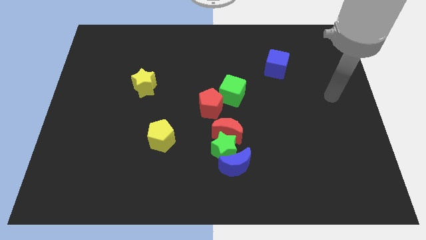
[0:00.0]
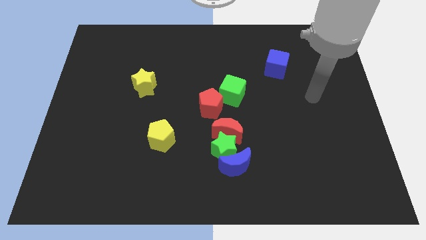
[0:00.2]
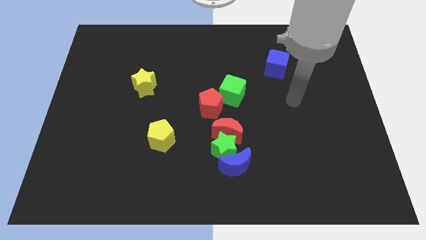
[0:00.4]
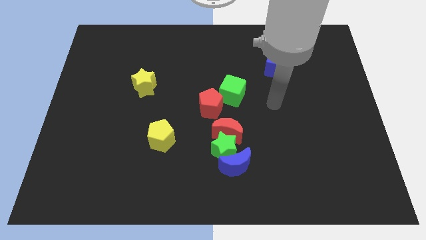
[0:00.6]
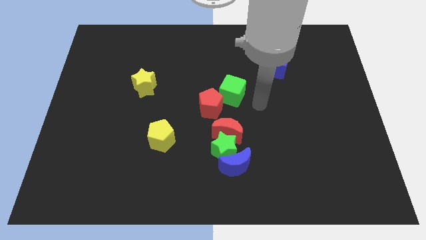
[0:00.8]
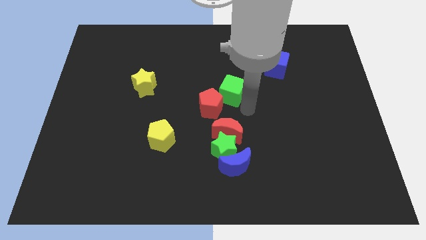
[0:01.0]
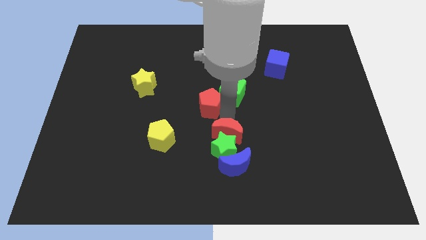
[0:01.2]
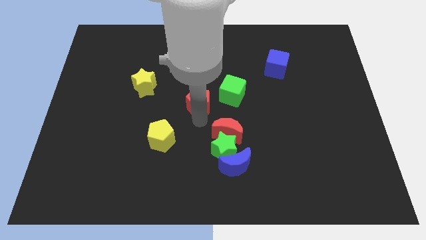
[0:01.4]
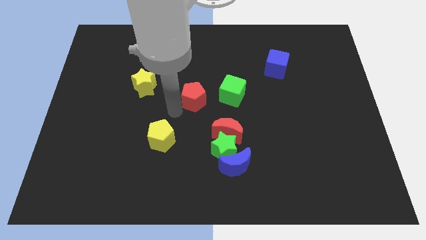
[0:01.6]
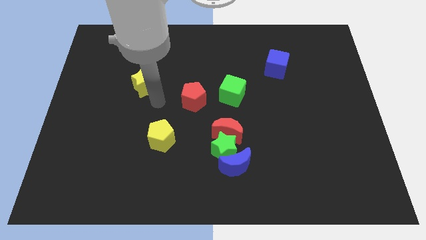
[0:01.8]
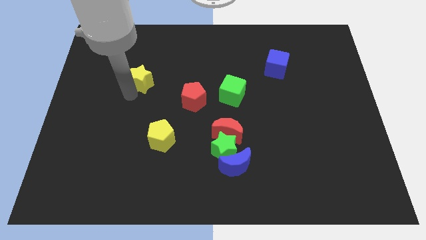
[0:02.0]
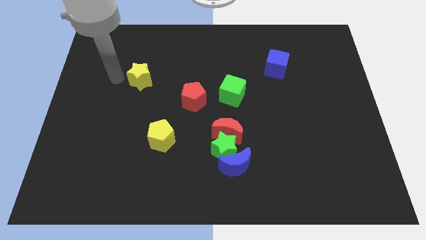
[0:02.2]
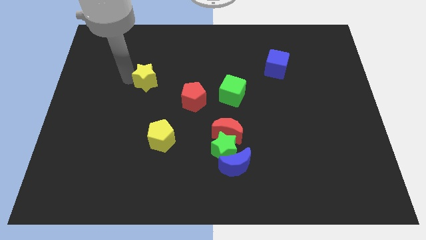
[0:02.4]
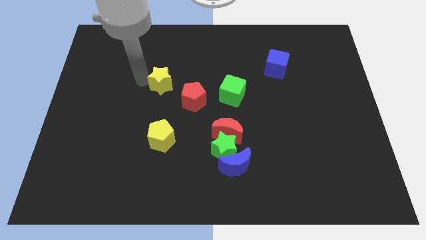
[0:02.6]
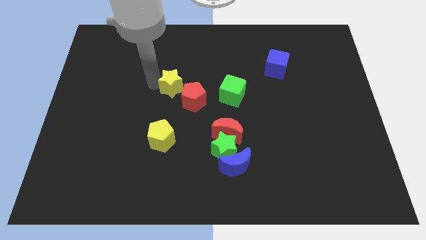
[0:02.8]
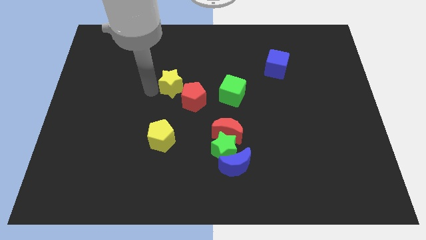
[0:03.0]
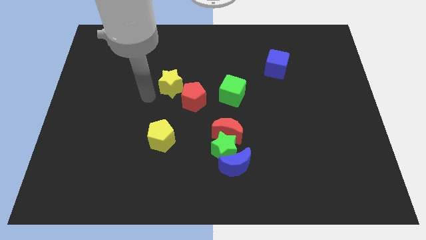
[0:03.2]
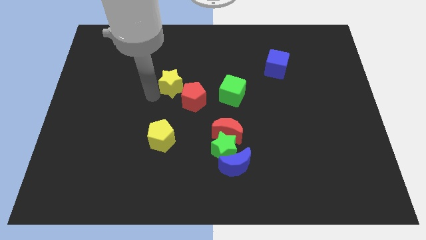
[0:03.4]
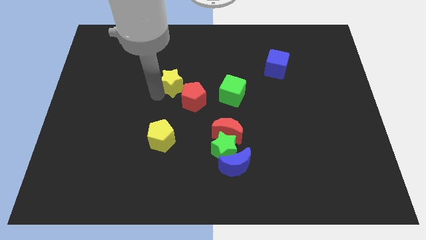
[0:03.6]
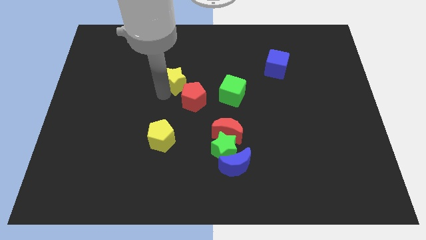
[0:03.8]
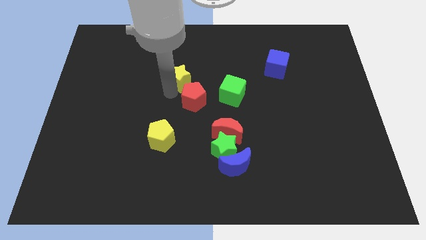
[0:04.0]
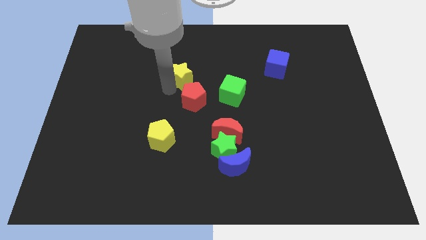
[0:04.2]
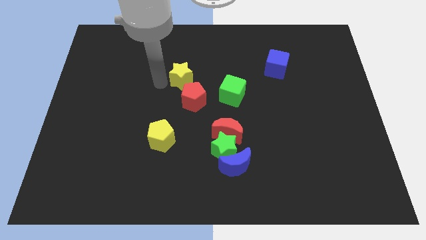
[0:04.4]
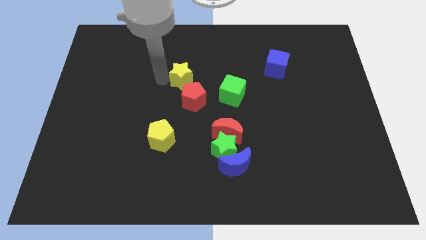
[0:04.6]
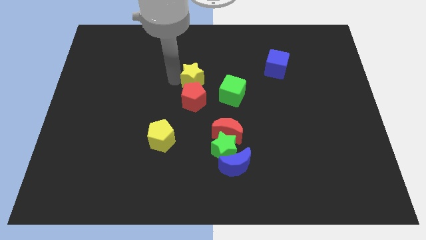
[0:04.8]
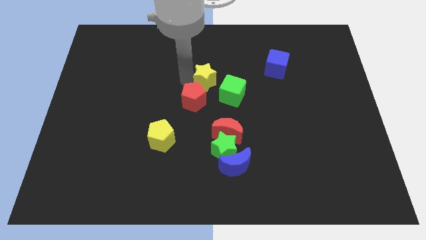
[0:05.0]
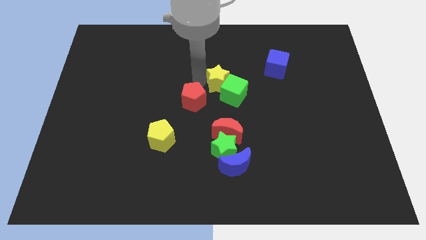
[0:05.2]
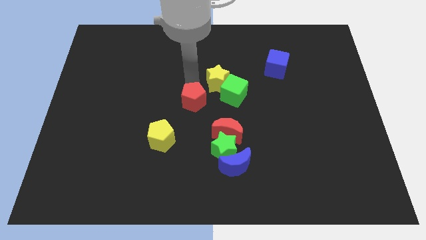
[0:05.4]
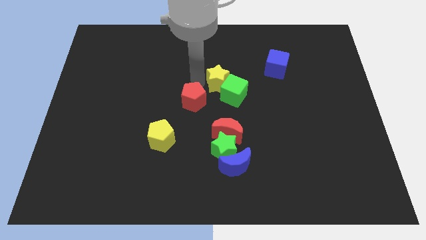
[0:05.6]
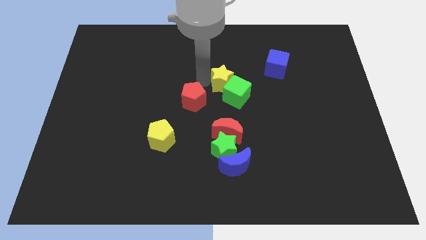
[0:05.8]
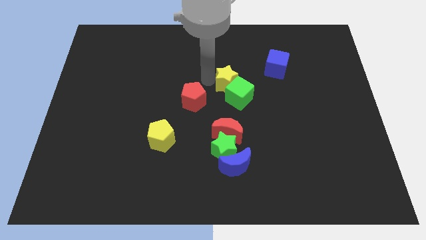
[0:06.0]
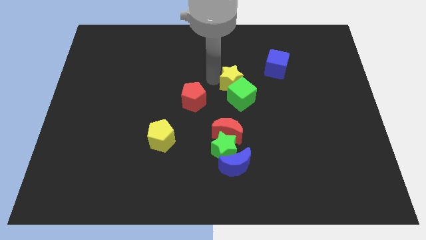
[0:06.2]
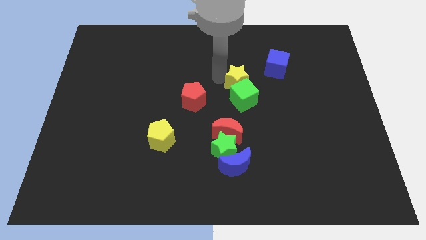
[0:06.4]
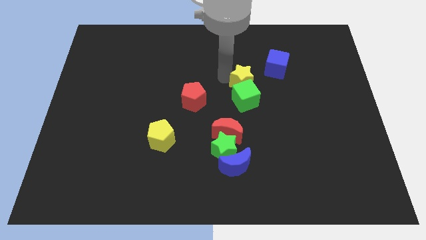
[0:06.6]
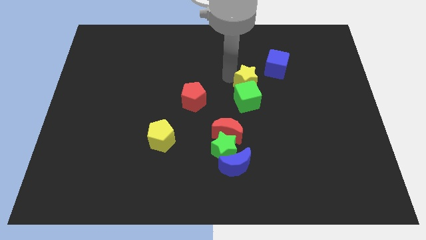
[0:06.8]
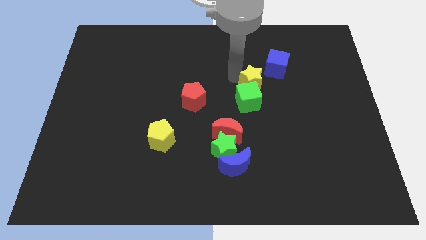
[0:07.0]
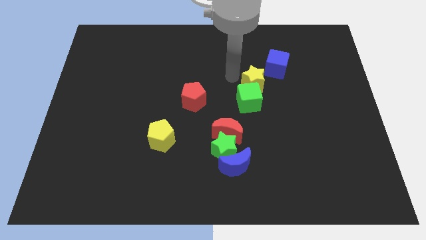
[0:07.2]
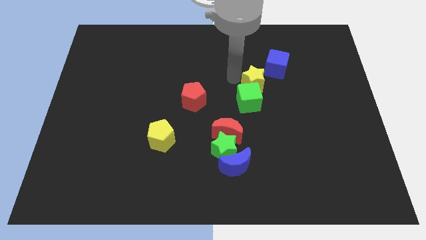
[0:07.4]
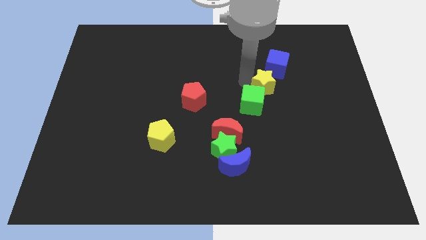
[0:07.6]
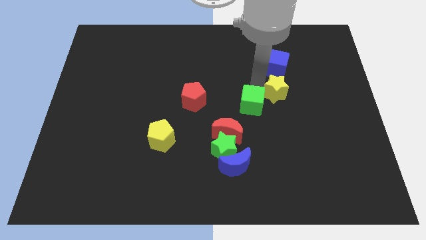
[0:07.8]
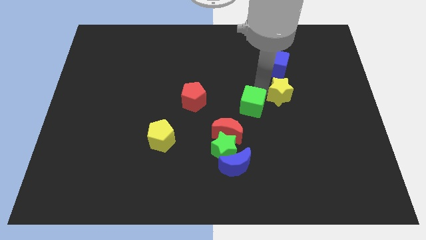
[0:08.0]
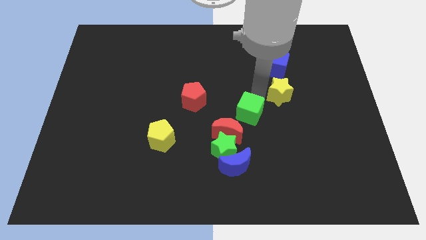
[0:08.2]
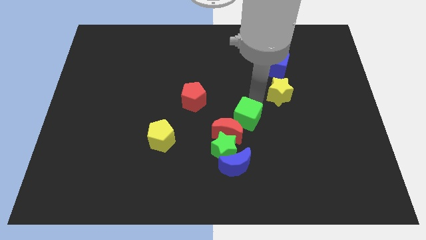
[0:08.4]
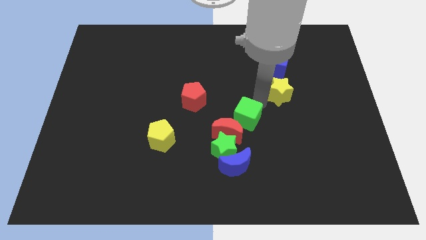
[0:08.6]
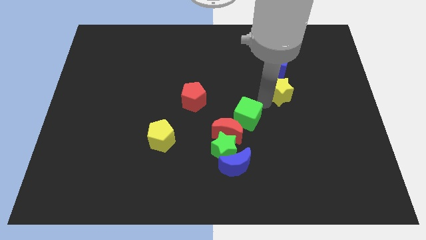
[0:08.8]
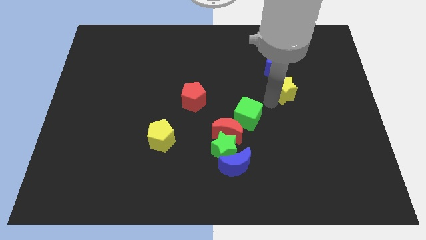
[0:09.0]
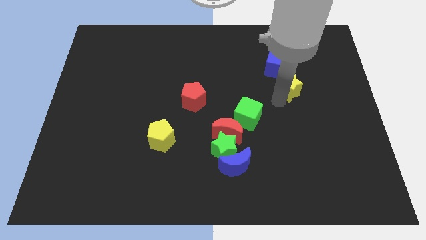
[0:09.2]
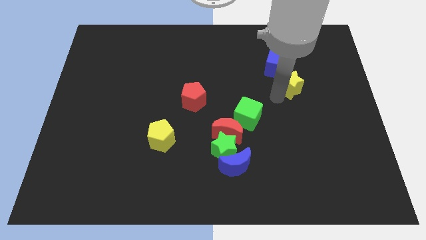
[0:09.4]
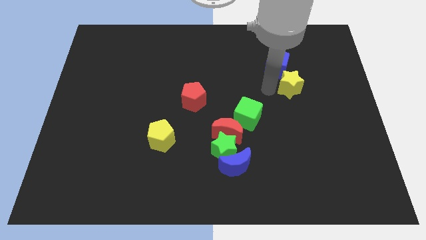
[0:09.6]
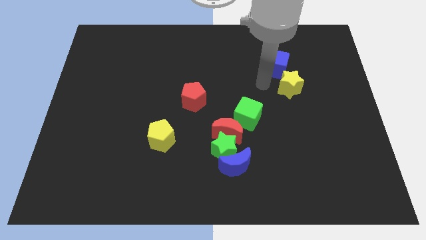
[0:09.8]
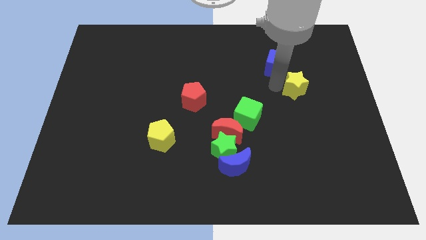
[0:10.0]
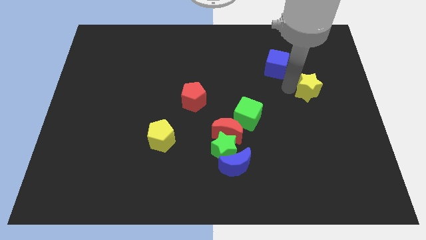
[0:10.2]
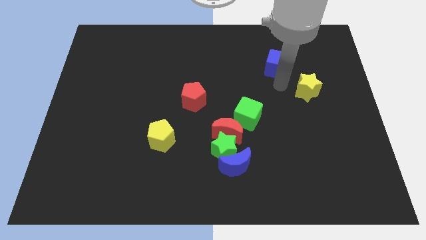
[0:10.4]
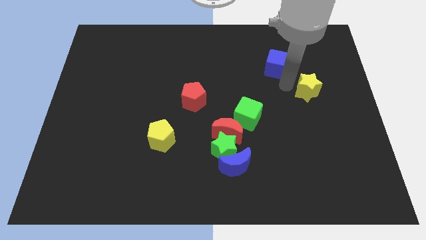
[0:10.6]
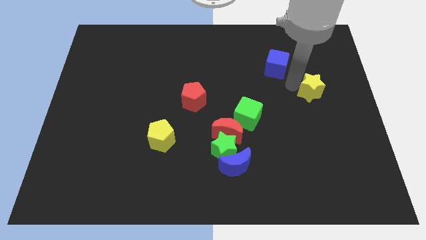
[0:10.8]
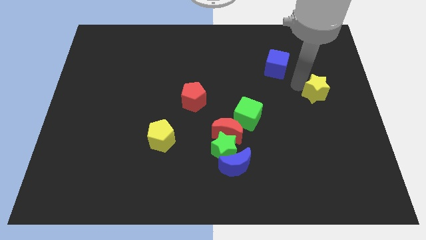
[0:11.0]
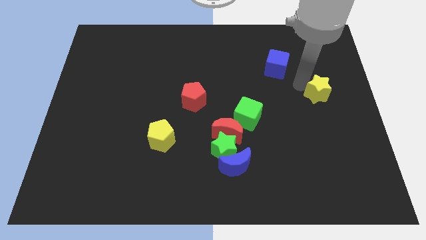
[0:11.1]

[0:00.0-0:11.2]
slide the yellow star to the center right

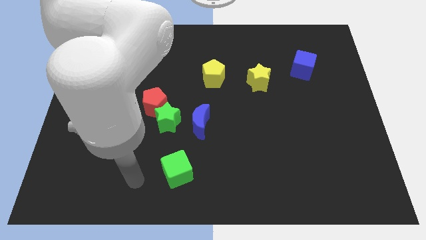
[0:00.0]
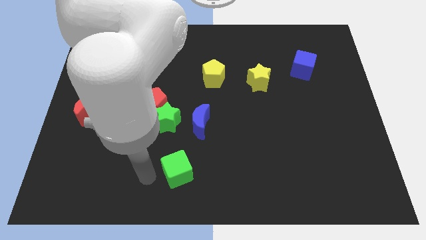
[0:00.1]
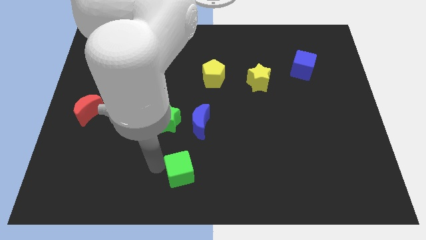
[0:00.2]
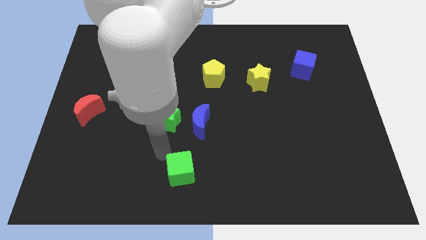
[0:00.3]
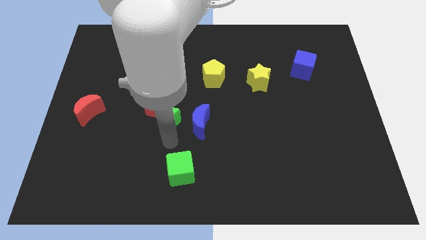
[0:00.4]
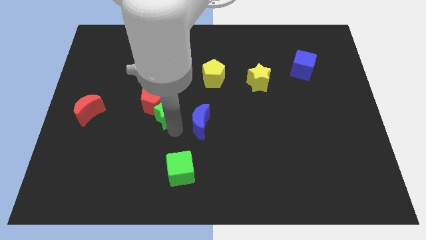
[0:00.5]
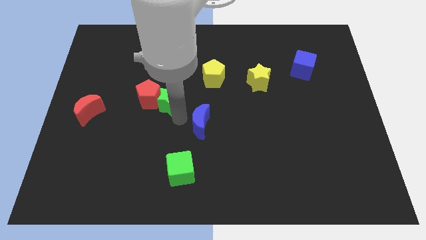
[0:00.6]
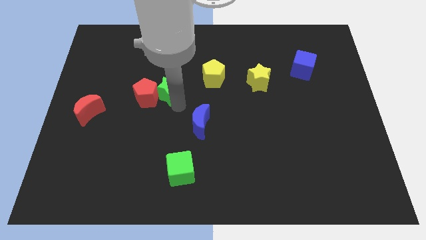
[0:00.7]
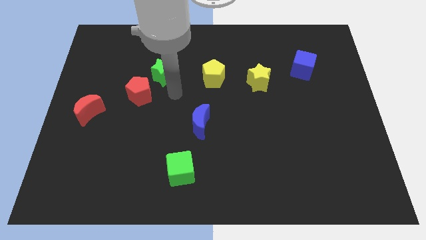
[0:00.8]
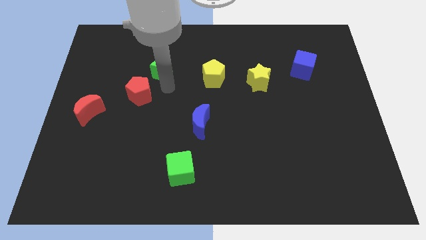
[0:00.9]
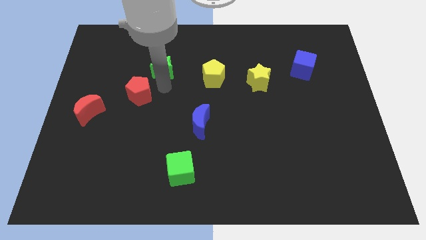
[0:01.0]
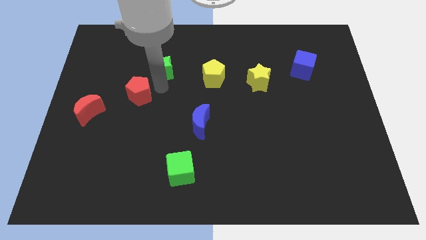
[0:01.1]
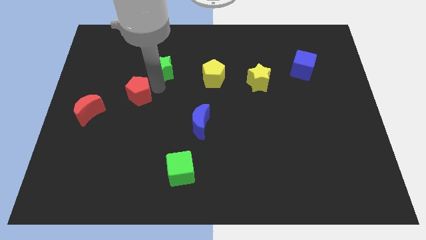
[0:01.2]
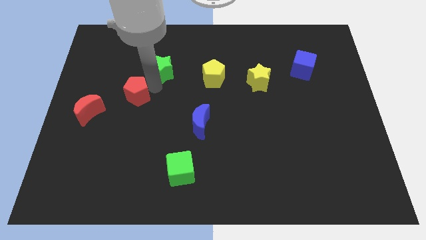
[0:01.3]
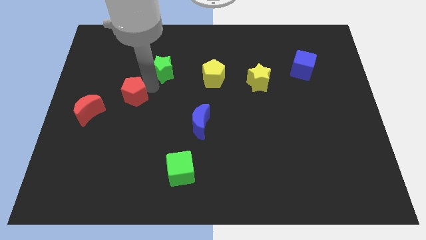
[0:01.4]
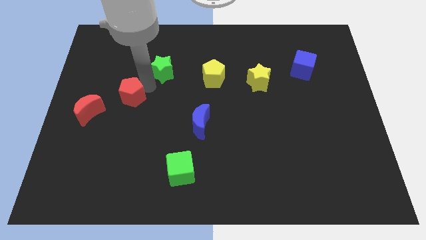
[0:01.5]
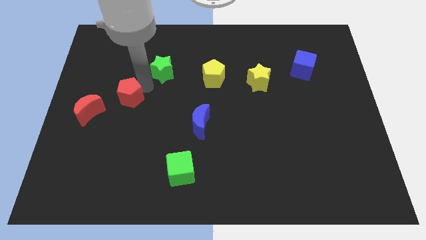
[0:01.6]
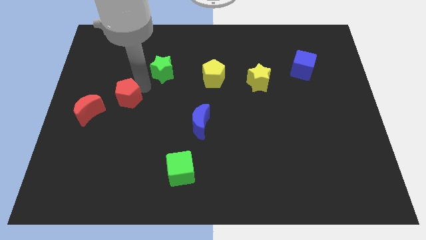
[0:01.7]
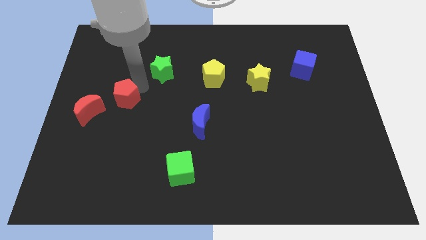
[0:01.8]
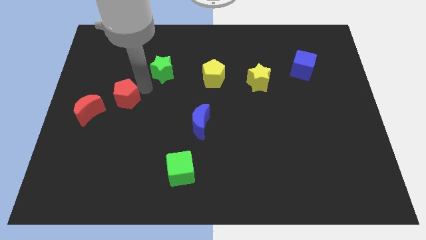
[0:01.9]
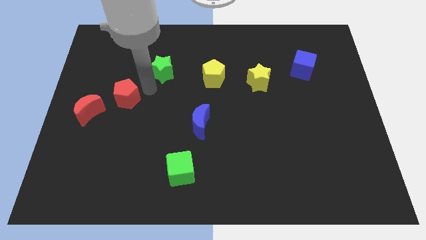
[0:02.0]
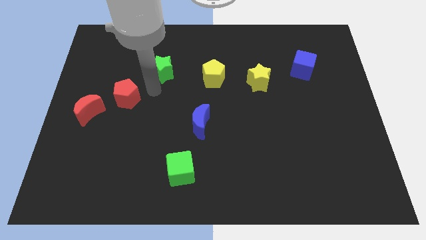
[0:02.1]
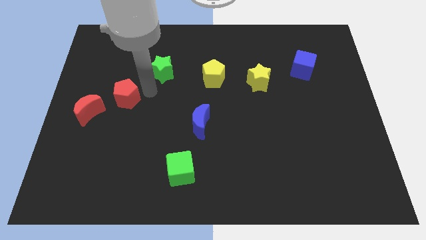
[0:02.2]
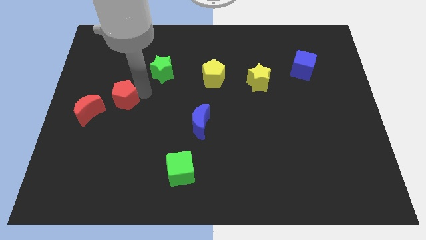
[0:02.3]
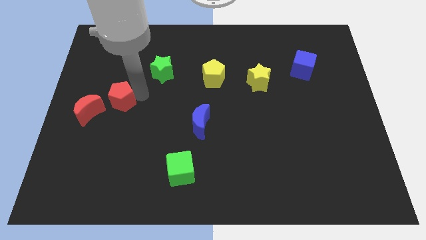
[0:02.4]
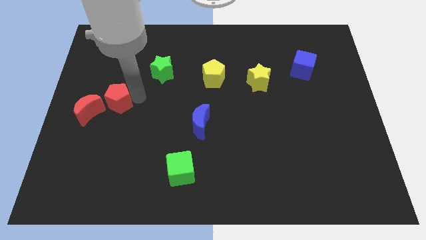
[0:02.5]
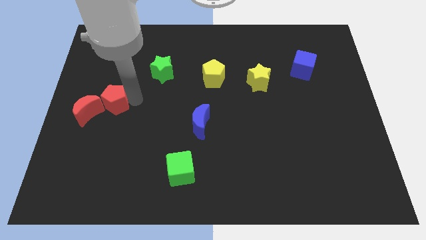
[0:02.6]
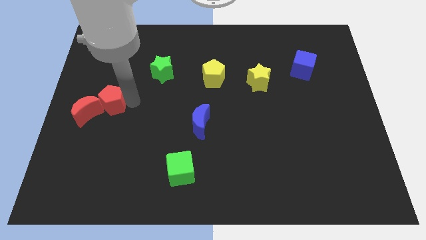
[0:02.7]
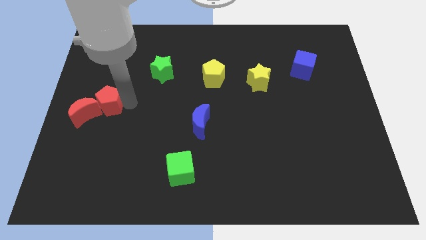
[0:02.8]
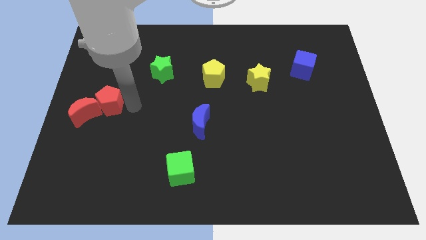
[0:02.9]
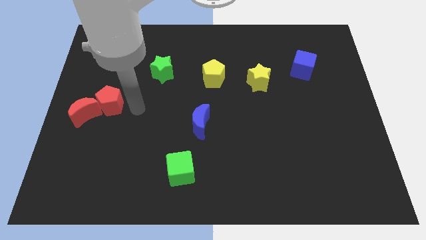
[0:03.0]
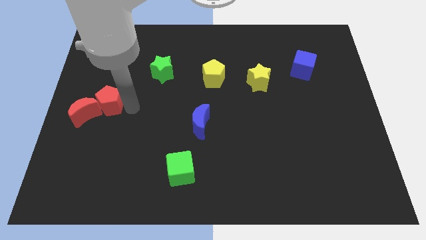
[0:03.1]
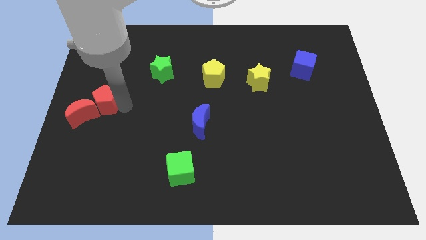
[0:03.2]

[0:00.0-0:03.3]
put the red pentagon to the left side of the board

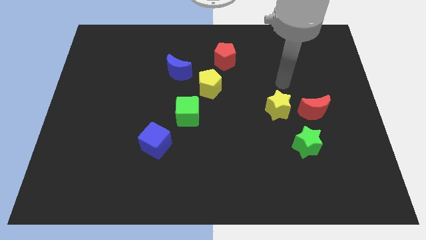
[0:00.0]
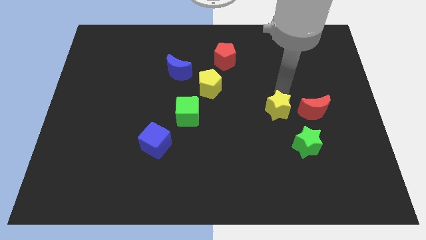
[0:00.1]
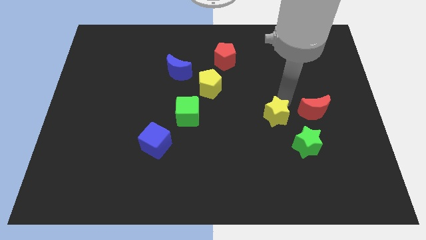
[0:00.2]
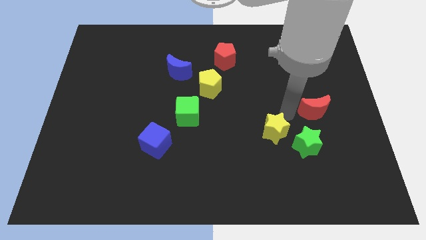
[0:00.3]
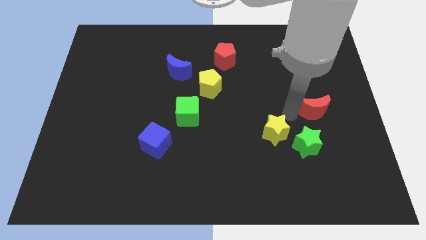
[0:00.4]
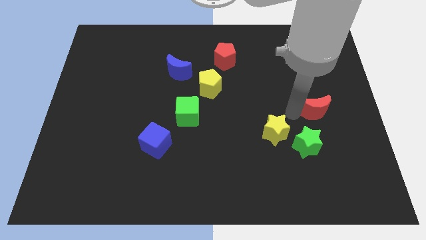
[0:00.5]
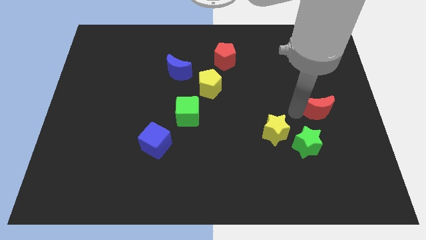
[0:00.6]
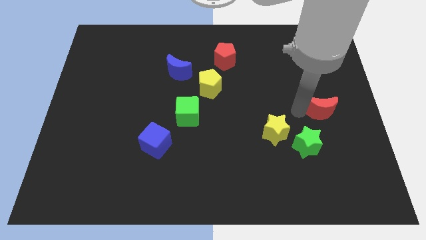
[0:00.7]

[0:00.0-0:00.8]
push the red moon to the right side
